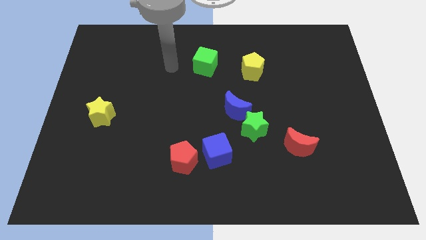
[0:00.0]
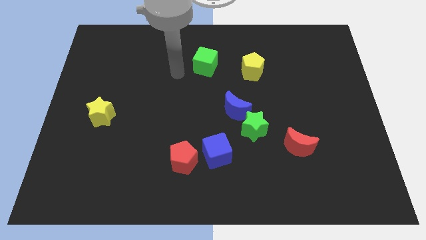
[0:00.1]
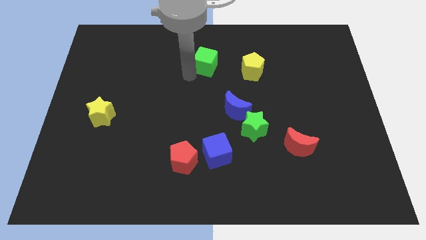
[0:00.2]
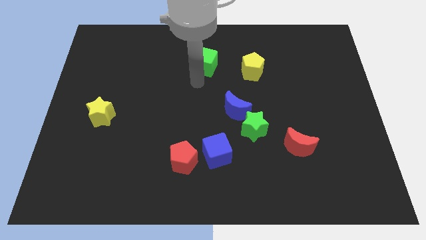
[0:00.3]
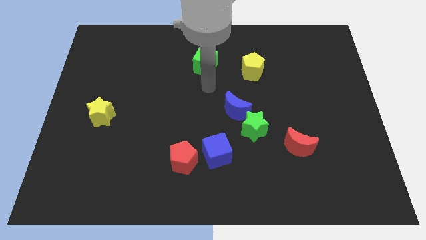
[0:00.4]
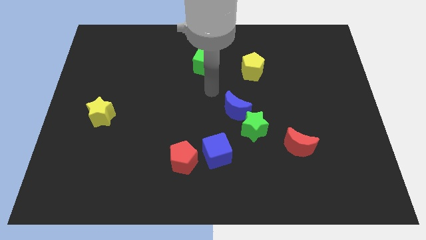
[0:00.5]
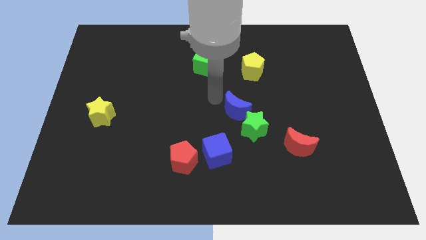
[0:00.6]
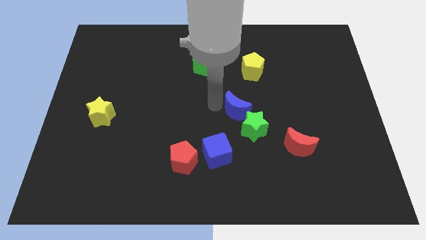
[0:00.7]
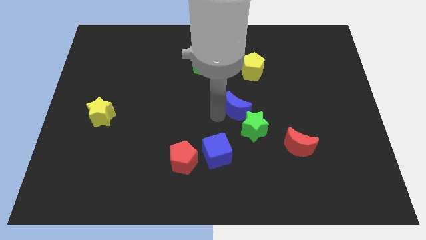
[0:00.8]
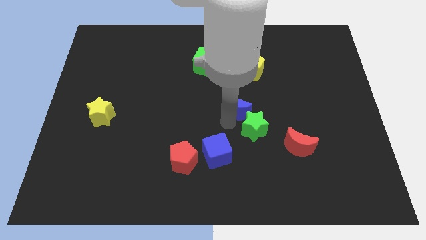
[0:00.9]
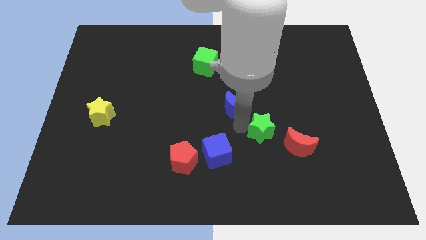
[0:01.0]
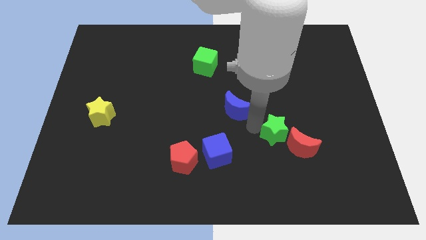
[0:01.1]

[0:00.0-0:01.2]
pull the blue moon apart from the green star

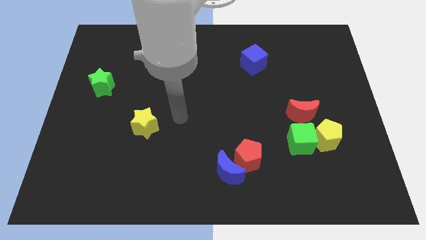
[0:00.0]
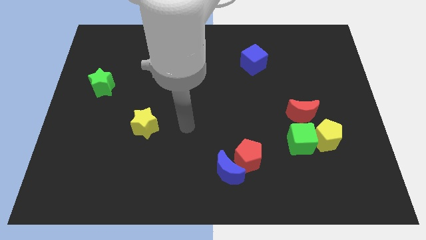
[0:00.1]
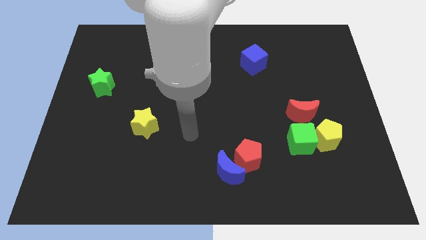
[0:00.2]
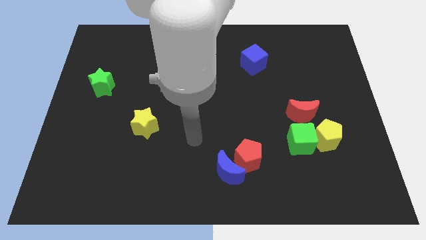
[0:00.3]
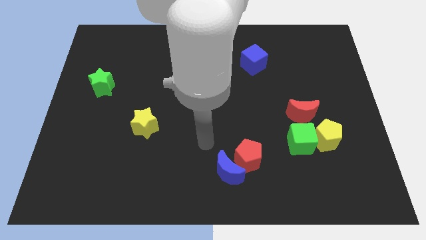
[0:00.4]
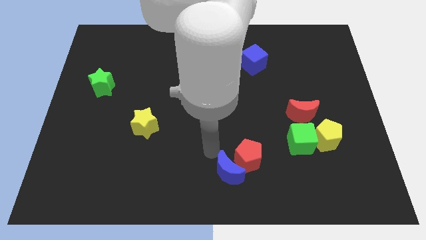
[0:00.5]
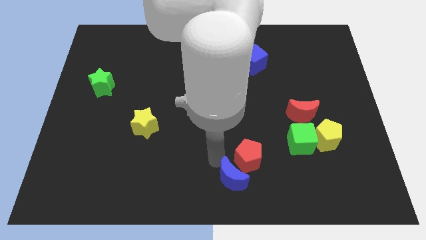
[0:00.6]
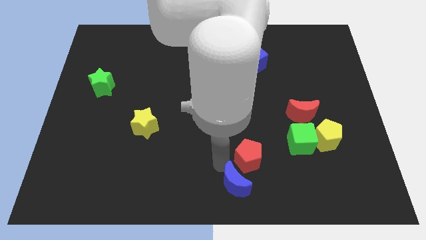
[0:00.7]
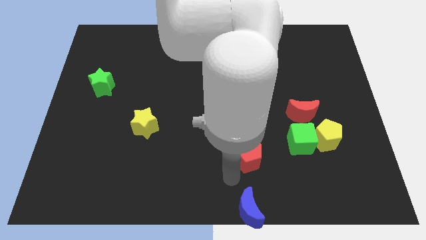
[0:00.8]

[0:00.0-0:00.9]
separate the red pentagon from the blue moon

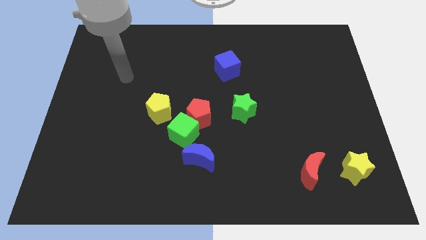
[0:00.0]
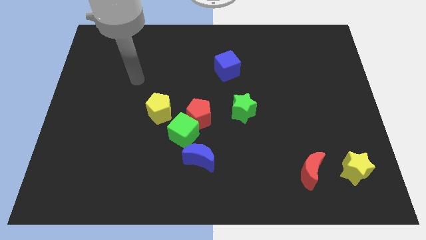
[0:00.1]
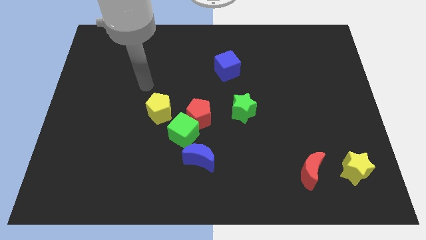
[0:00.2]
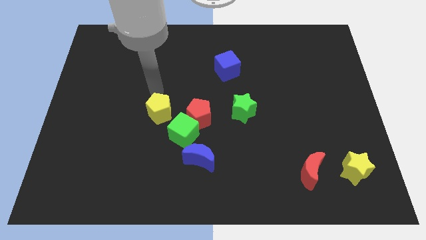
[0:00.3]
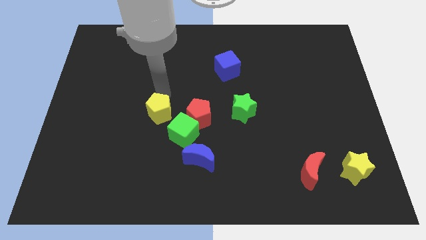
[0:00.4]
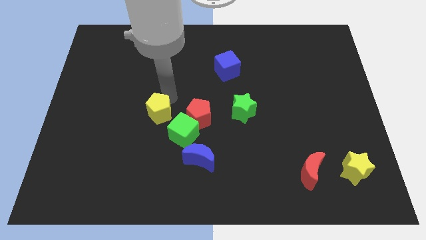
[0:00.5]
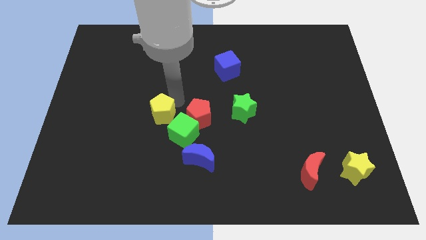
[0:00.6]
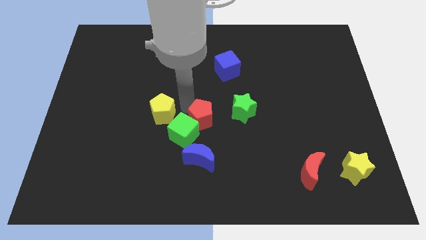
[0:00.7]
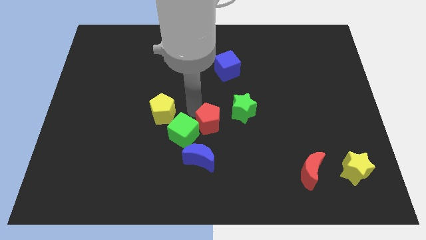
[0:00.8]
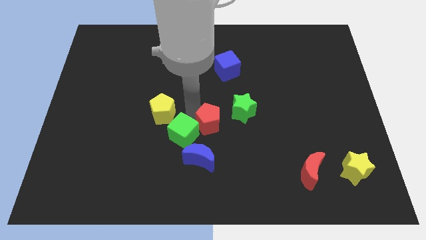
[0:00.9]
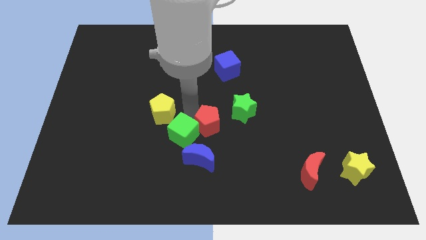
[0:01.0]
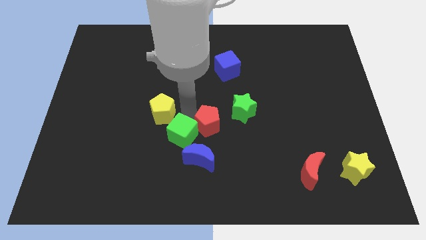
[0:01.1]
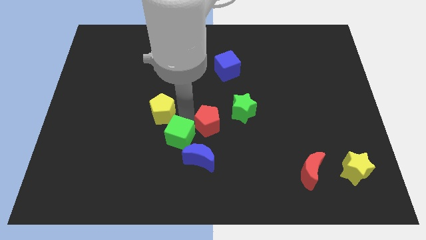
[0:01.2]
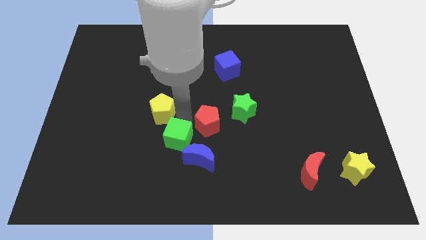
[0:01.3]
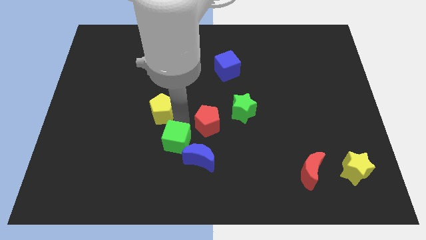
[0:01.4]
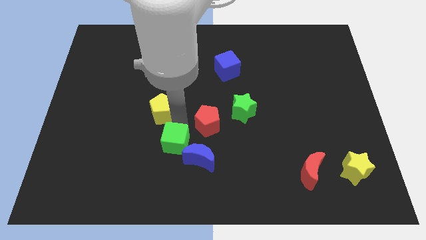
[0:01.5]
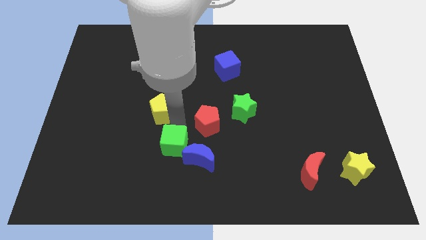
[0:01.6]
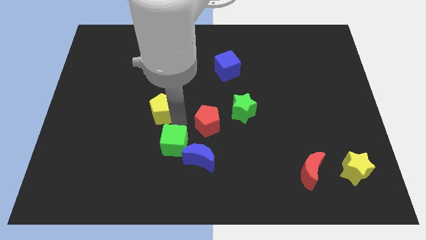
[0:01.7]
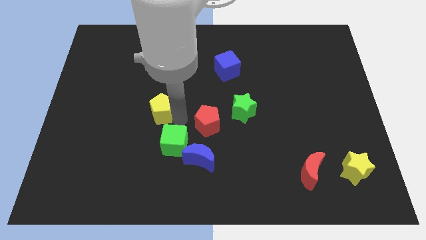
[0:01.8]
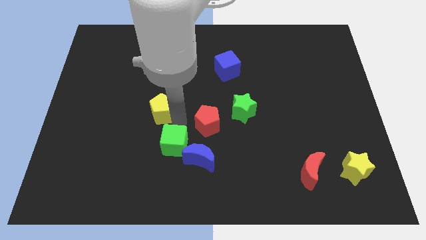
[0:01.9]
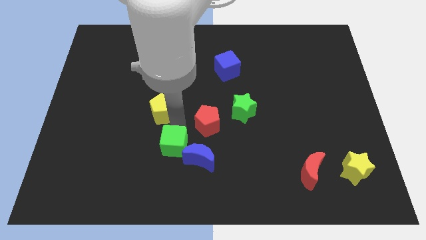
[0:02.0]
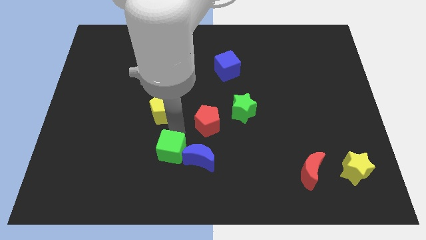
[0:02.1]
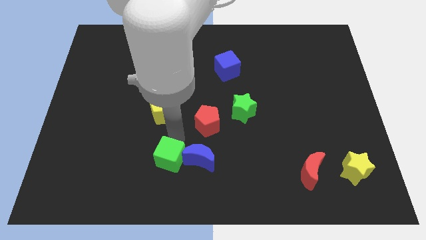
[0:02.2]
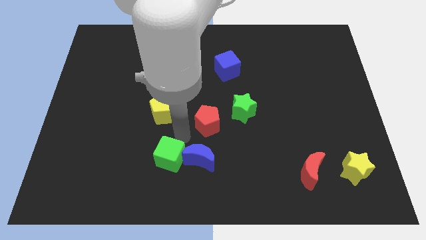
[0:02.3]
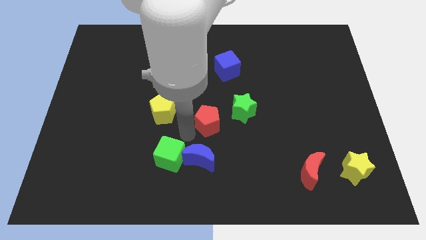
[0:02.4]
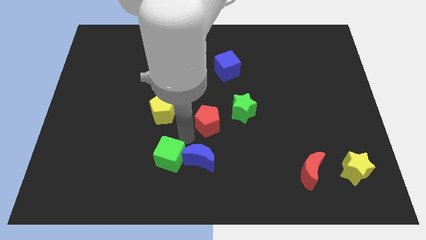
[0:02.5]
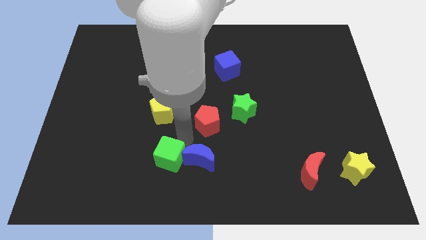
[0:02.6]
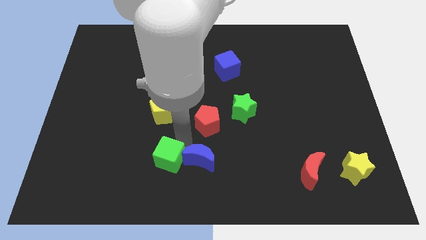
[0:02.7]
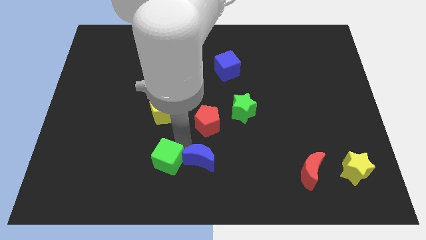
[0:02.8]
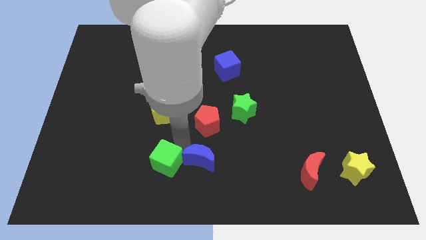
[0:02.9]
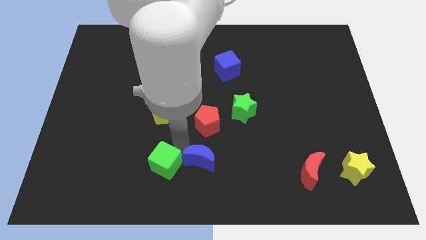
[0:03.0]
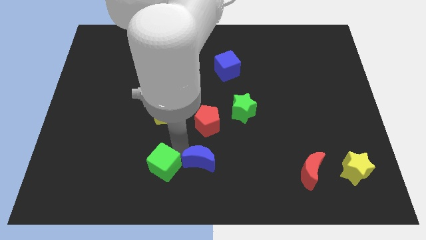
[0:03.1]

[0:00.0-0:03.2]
move the green cube away from the red pentagon, blue moon, and yellow pentagon

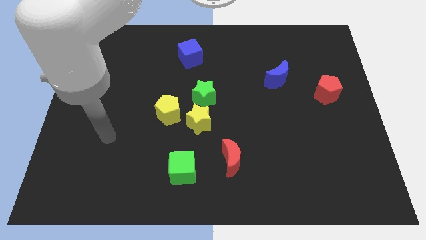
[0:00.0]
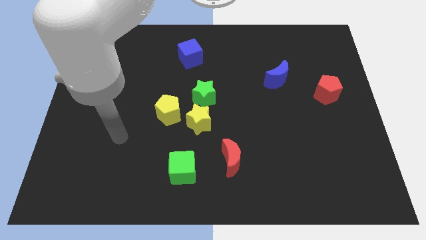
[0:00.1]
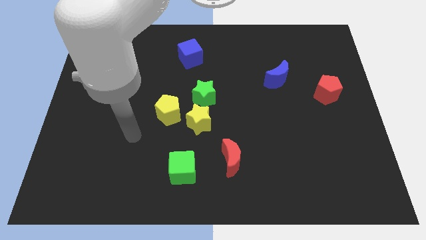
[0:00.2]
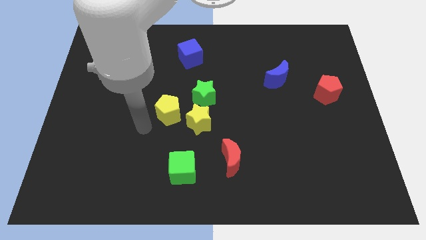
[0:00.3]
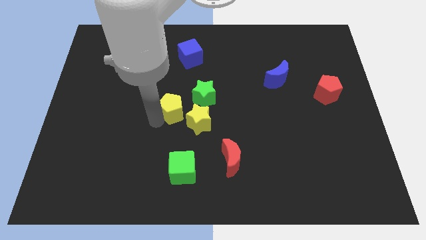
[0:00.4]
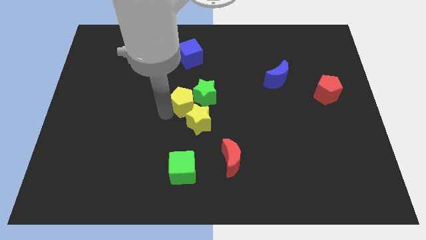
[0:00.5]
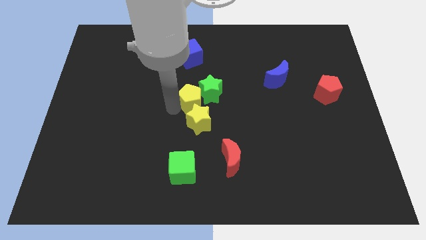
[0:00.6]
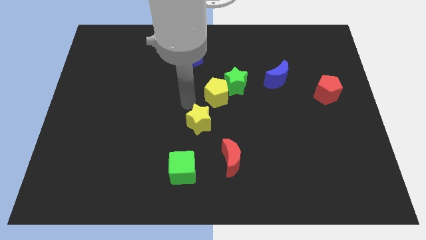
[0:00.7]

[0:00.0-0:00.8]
move the yellow star away from the green star and yellow pentagon

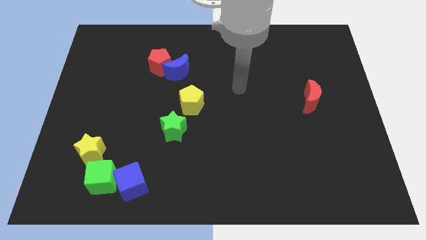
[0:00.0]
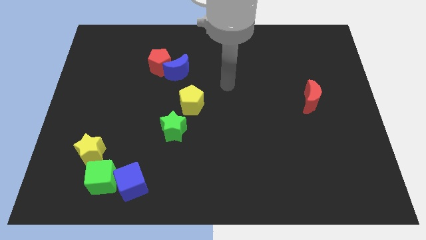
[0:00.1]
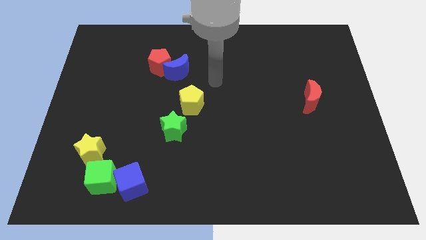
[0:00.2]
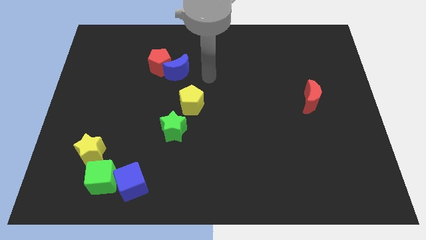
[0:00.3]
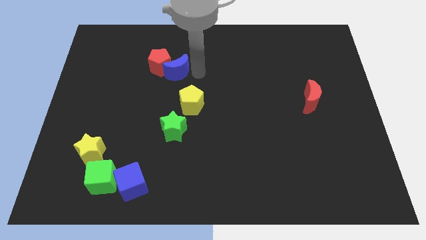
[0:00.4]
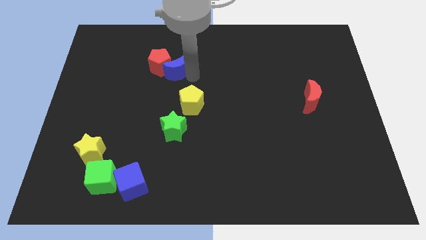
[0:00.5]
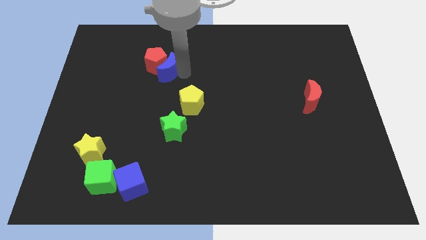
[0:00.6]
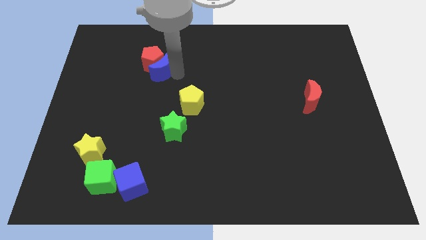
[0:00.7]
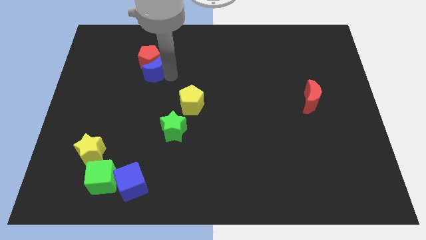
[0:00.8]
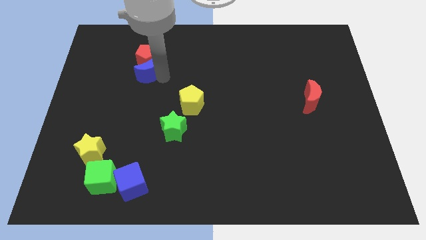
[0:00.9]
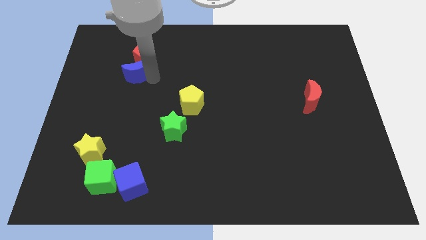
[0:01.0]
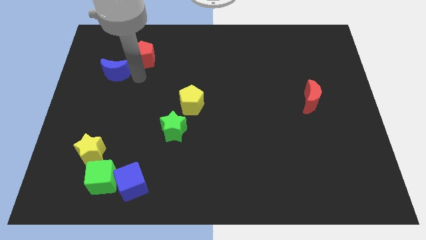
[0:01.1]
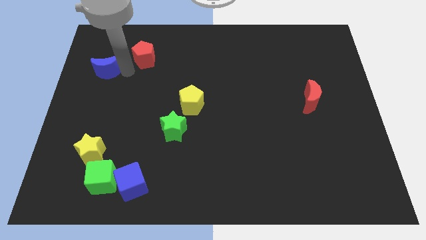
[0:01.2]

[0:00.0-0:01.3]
move the red pentagon away from the blue moon

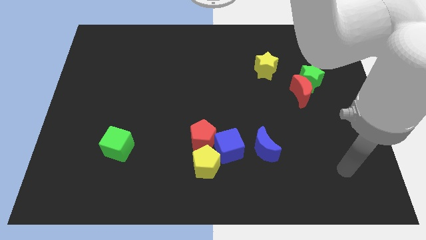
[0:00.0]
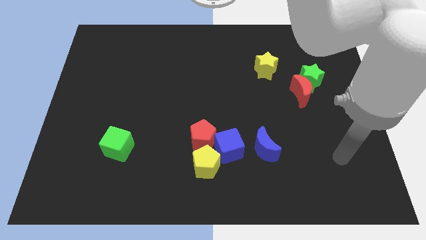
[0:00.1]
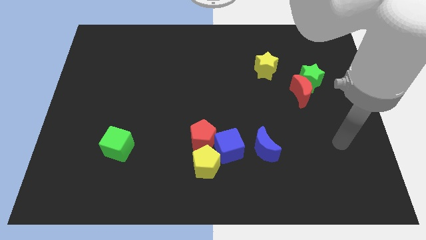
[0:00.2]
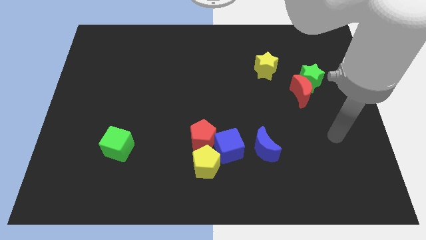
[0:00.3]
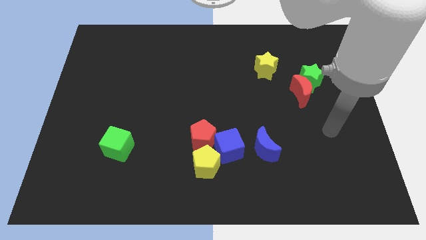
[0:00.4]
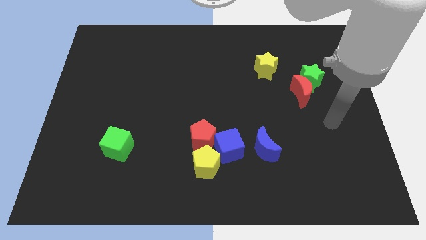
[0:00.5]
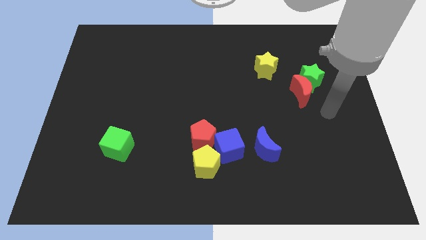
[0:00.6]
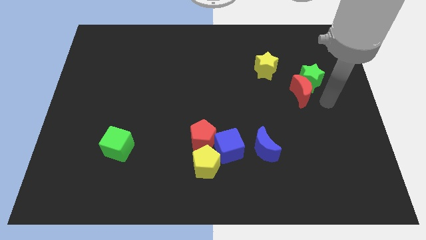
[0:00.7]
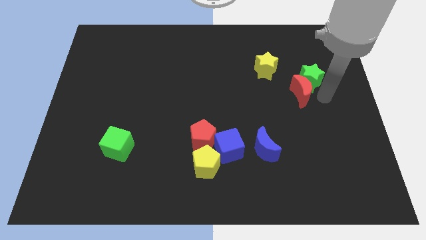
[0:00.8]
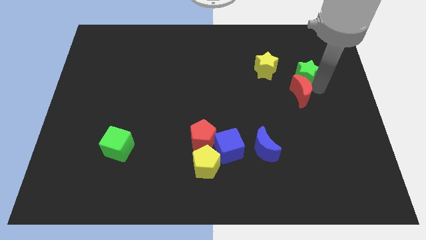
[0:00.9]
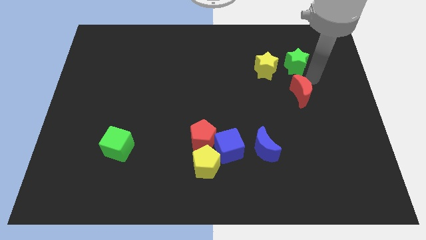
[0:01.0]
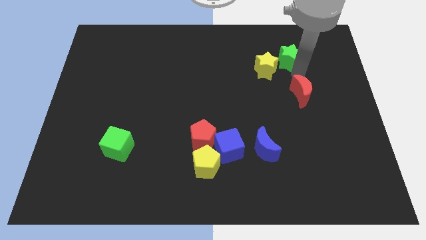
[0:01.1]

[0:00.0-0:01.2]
move the red moon away from the green star

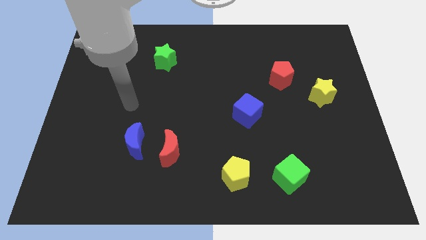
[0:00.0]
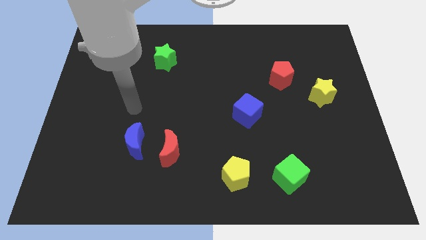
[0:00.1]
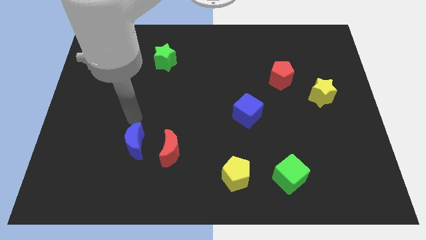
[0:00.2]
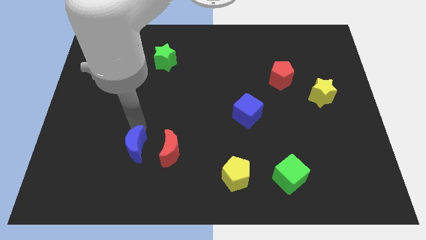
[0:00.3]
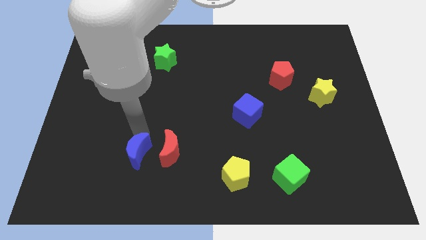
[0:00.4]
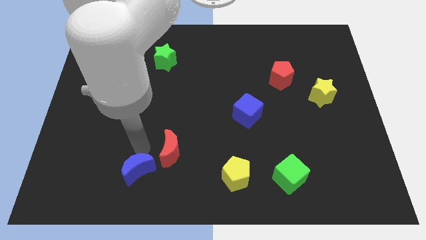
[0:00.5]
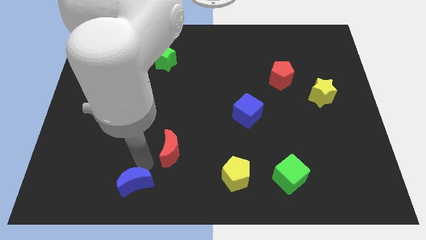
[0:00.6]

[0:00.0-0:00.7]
pull the red moon apart from the blue moon

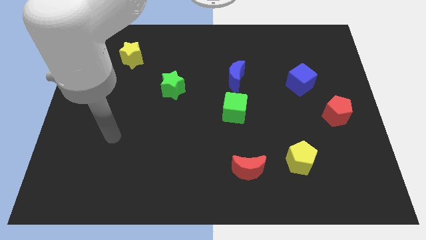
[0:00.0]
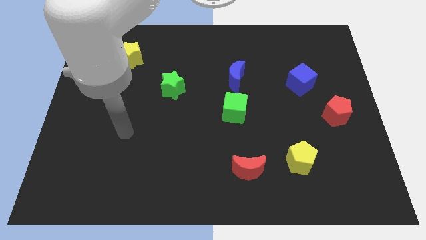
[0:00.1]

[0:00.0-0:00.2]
move the blue moon away from the green cube
